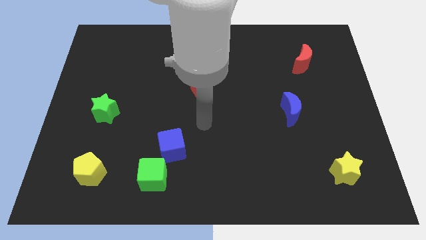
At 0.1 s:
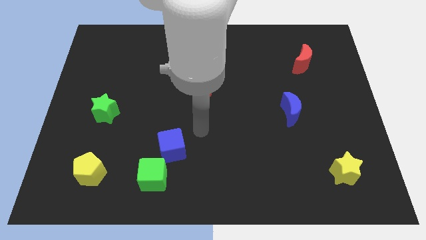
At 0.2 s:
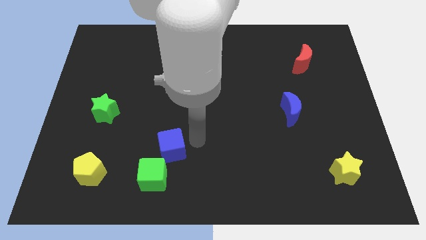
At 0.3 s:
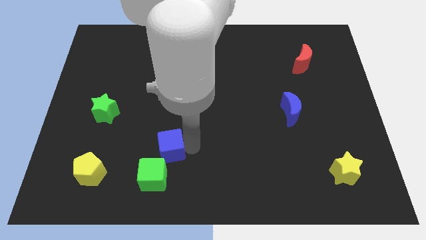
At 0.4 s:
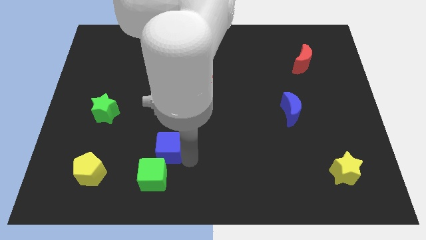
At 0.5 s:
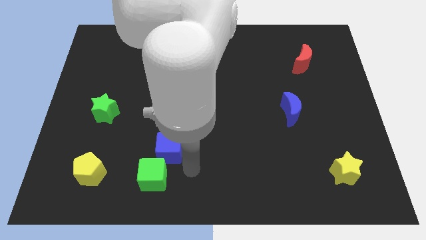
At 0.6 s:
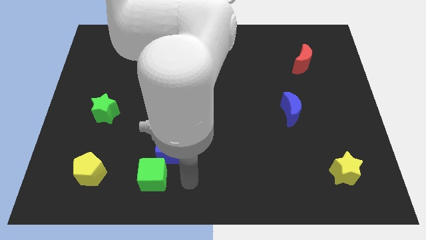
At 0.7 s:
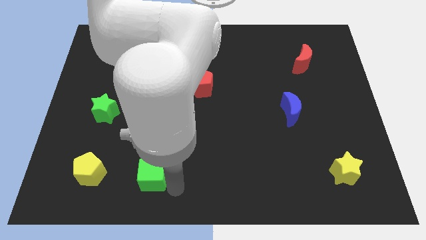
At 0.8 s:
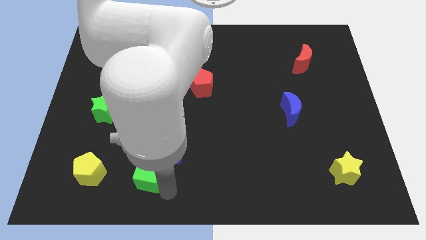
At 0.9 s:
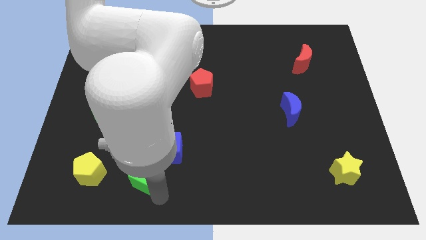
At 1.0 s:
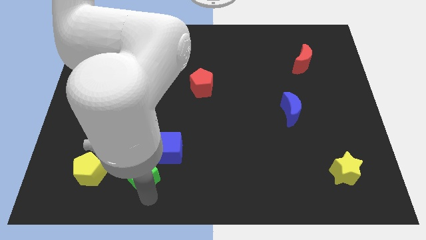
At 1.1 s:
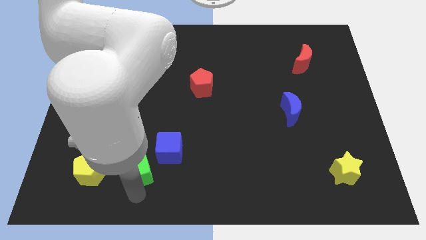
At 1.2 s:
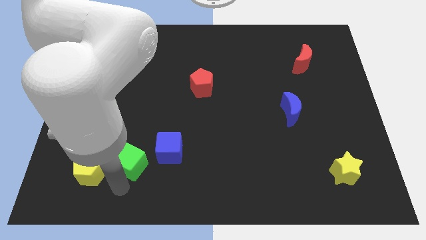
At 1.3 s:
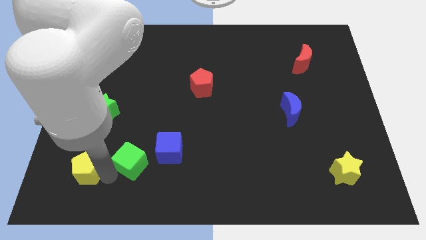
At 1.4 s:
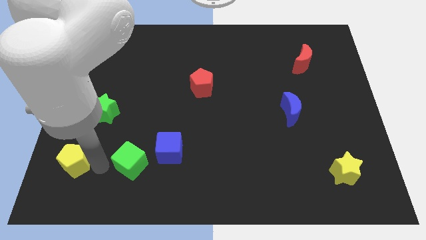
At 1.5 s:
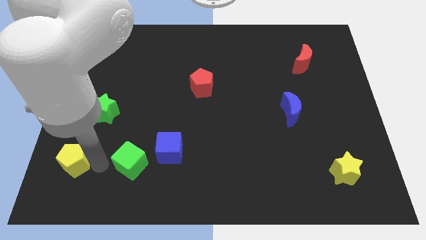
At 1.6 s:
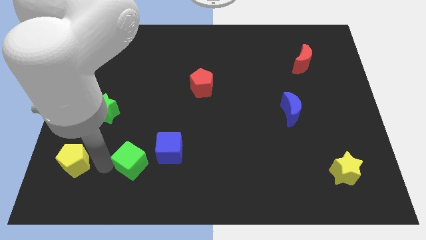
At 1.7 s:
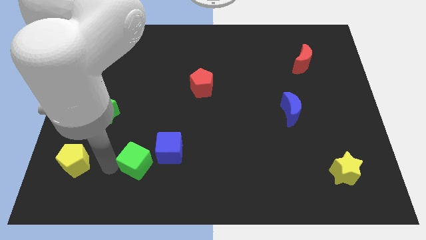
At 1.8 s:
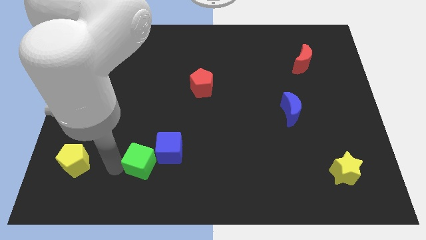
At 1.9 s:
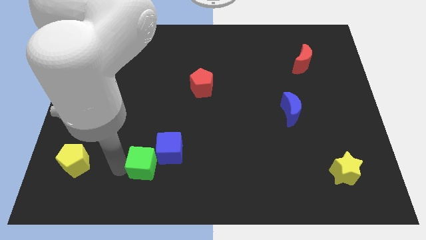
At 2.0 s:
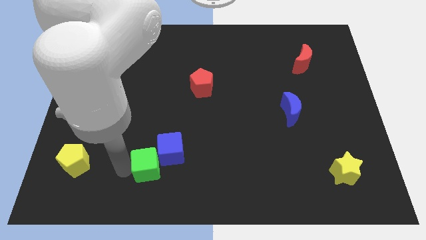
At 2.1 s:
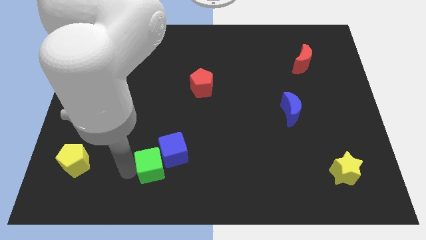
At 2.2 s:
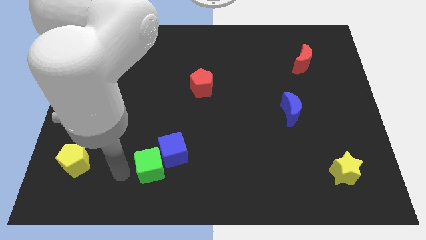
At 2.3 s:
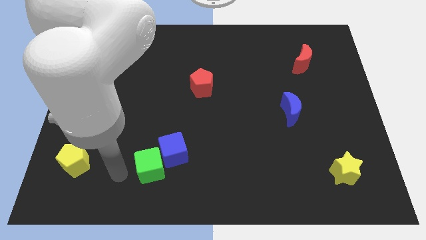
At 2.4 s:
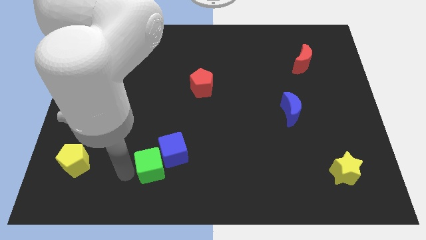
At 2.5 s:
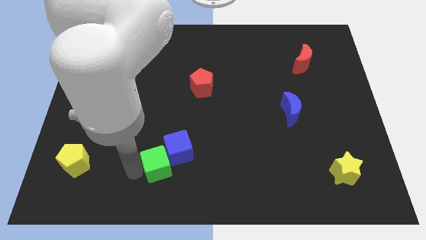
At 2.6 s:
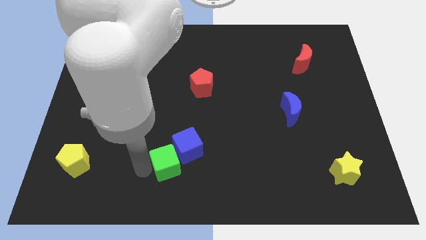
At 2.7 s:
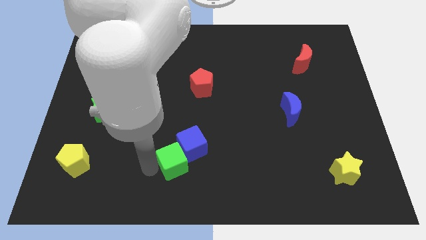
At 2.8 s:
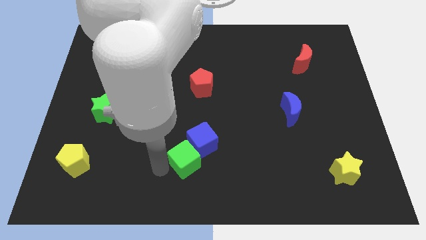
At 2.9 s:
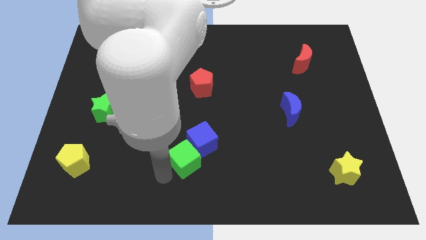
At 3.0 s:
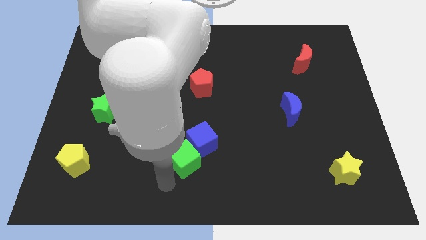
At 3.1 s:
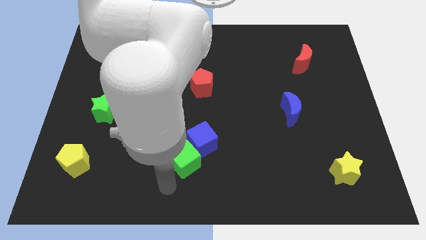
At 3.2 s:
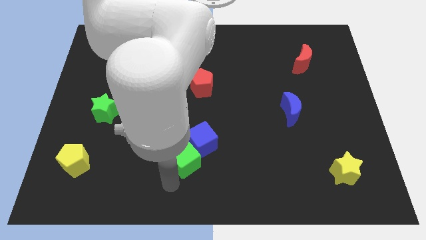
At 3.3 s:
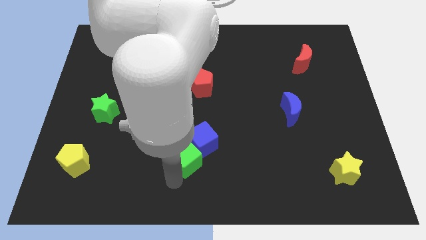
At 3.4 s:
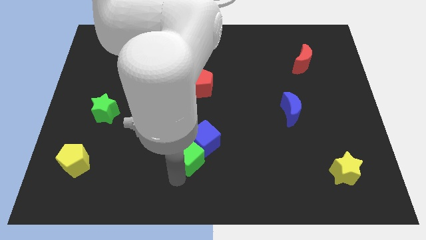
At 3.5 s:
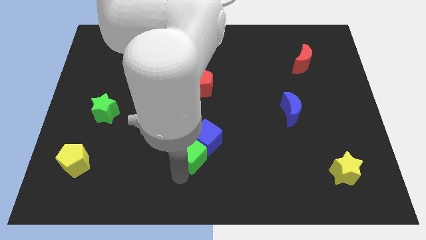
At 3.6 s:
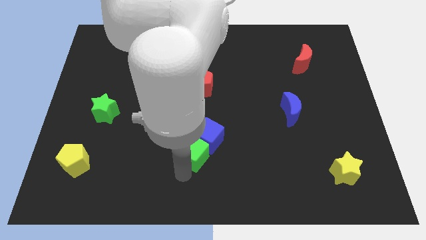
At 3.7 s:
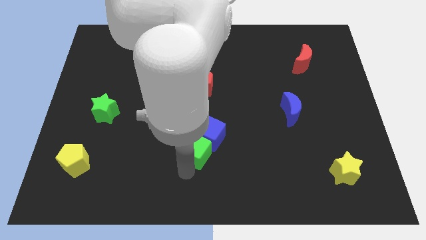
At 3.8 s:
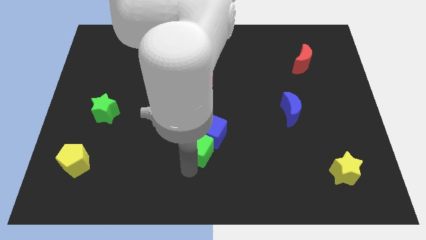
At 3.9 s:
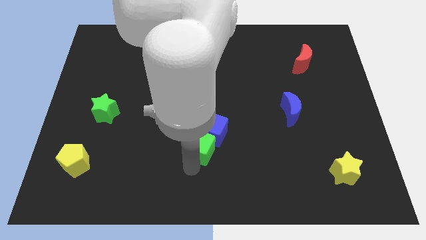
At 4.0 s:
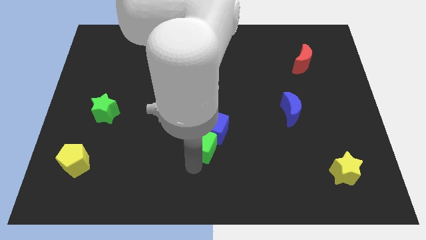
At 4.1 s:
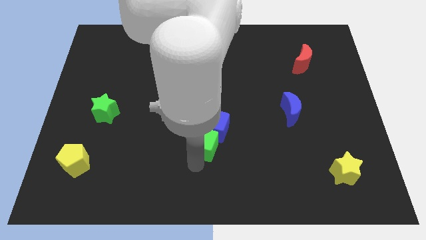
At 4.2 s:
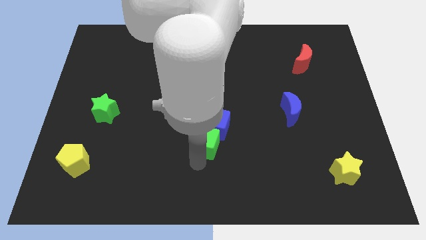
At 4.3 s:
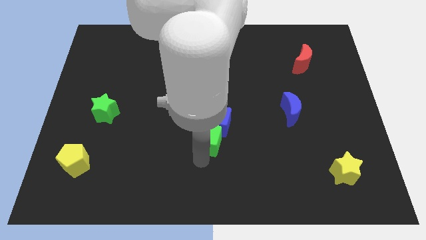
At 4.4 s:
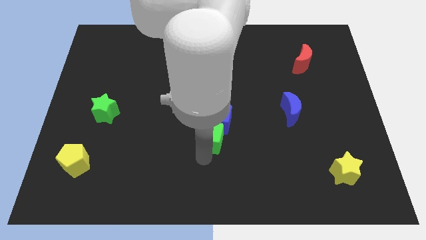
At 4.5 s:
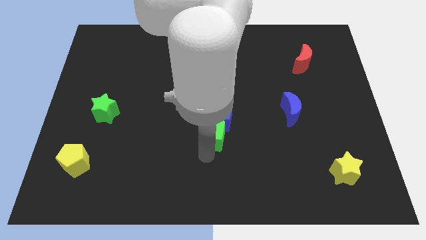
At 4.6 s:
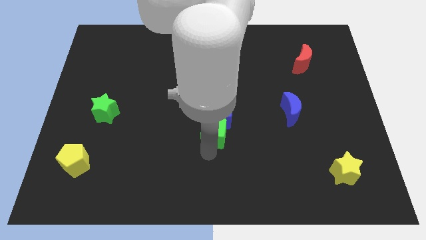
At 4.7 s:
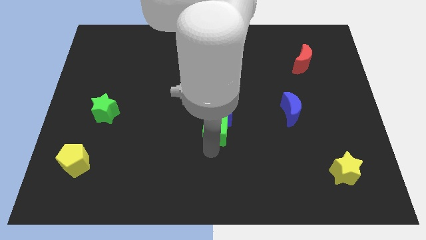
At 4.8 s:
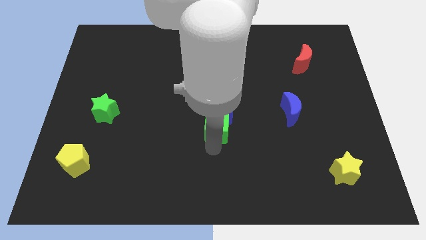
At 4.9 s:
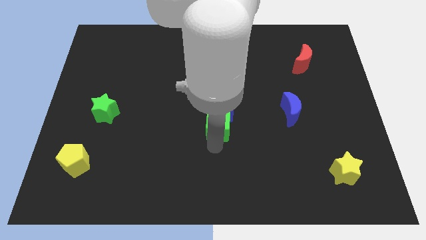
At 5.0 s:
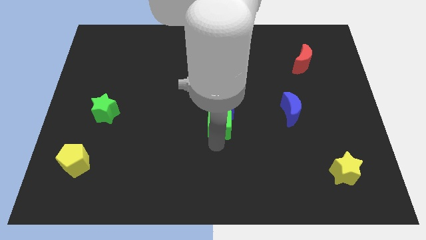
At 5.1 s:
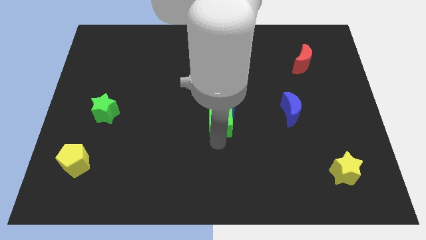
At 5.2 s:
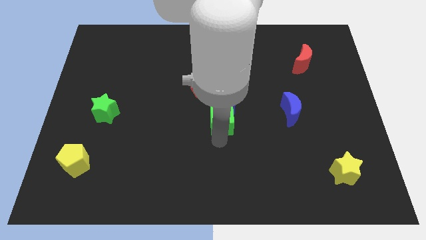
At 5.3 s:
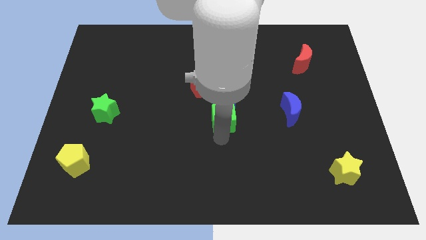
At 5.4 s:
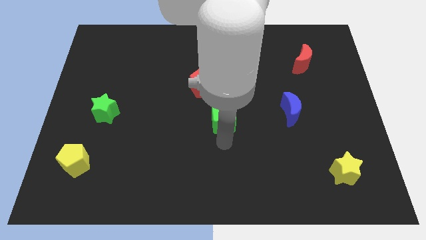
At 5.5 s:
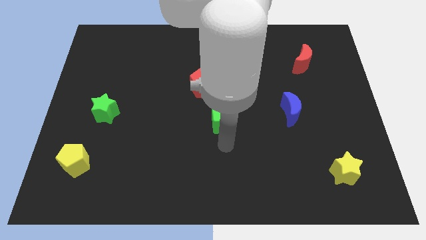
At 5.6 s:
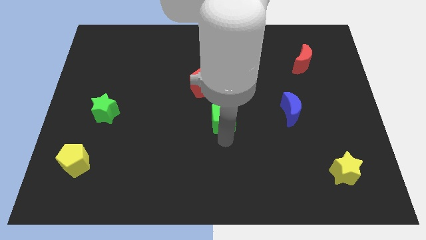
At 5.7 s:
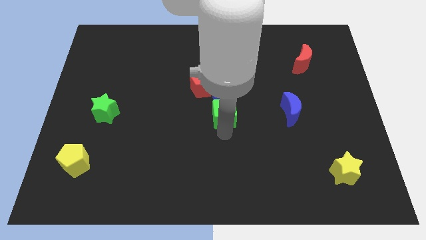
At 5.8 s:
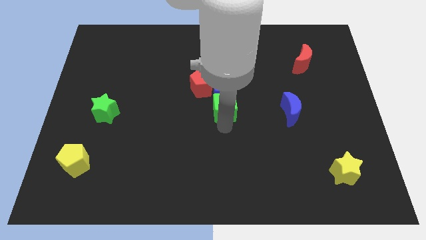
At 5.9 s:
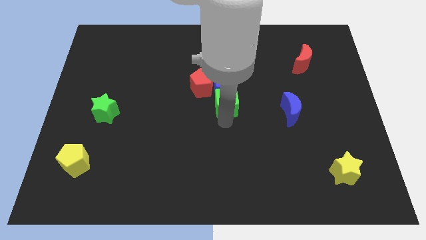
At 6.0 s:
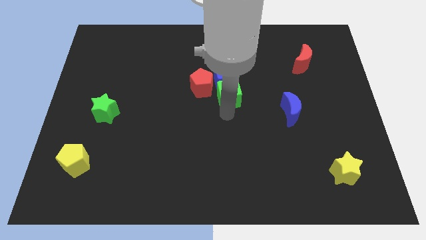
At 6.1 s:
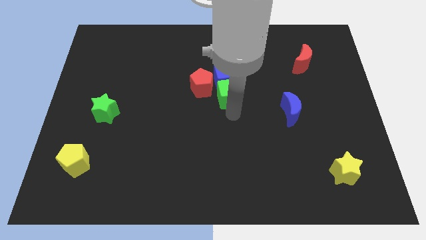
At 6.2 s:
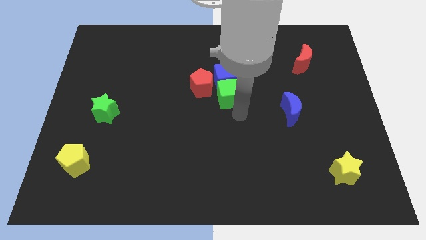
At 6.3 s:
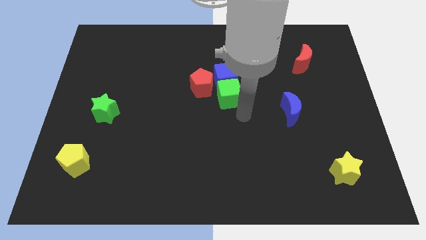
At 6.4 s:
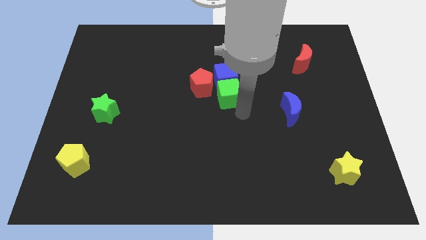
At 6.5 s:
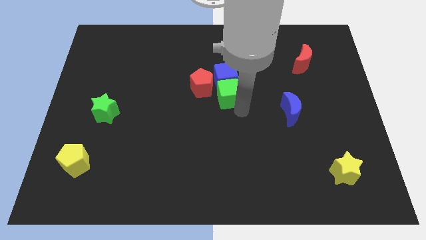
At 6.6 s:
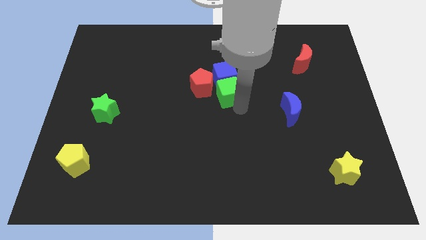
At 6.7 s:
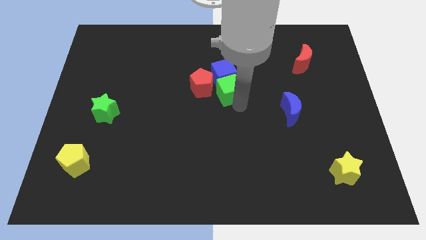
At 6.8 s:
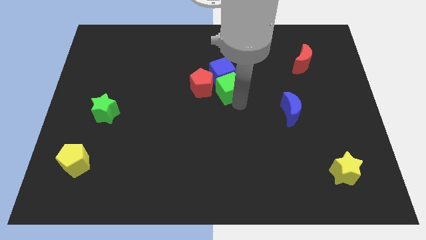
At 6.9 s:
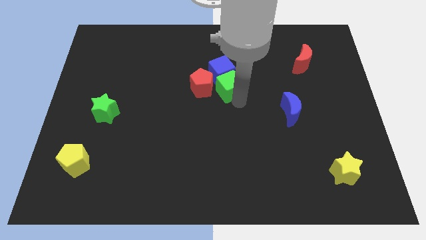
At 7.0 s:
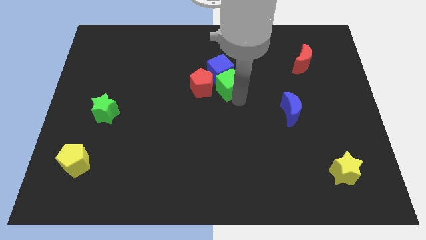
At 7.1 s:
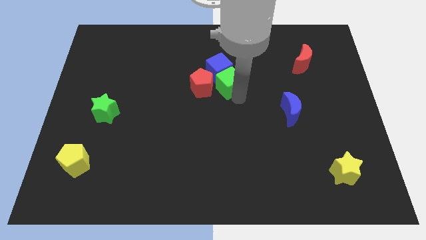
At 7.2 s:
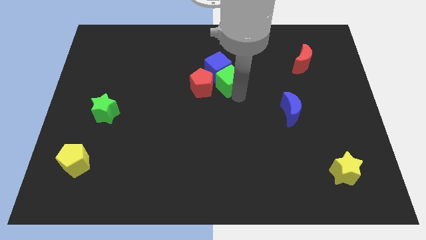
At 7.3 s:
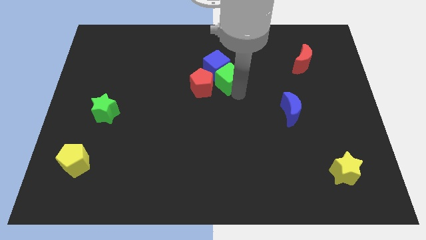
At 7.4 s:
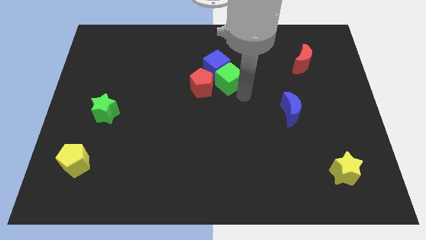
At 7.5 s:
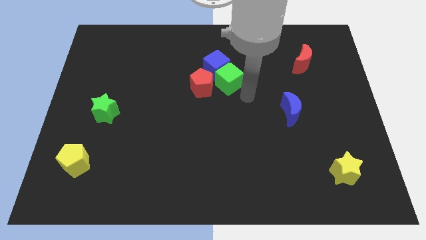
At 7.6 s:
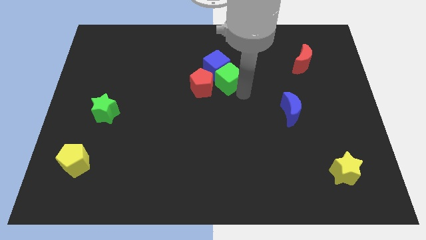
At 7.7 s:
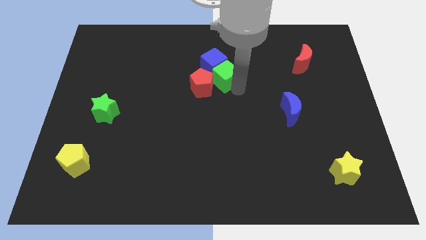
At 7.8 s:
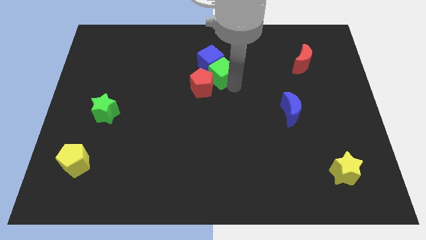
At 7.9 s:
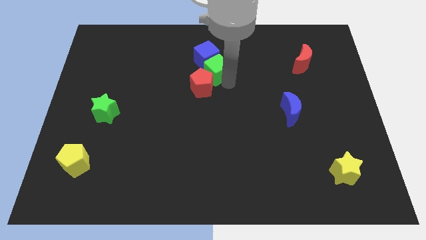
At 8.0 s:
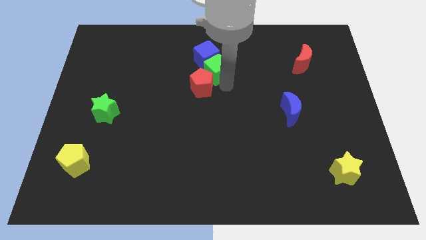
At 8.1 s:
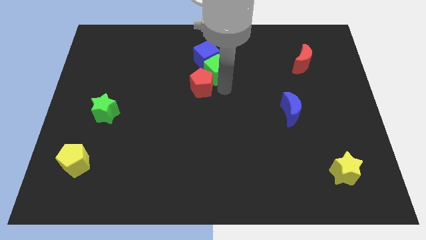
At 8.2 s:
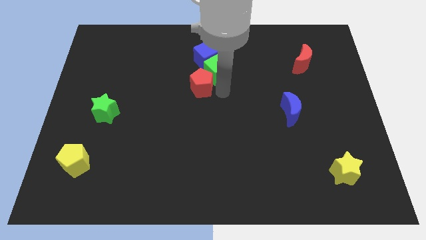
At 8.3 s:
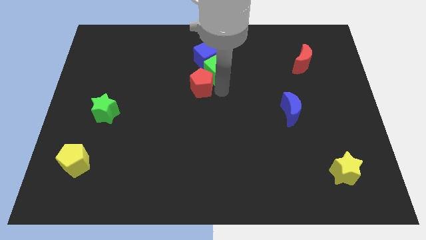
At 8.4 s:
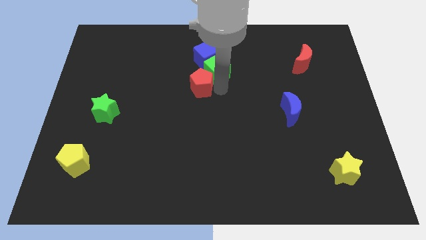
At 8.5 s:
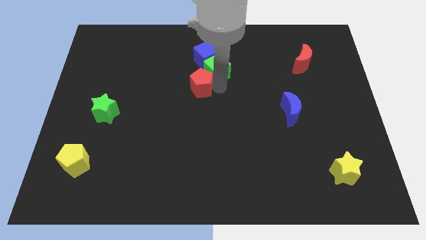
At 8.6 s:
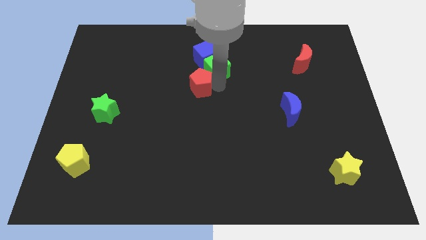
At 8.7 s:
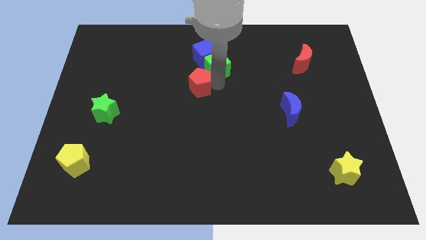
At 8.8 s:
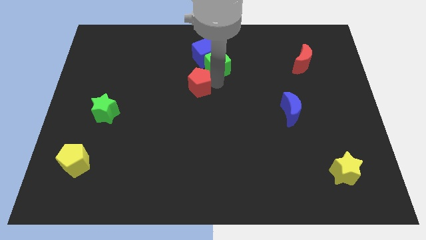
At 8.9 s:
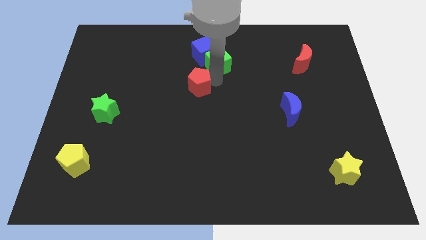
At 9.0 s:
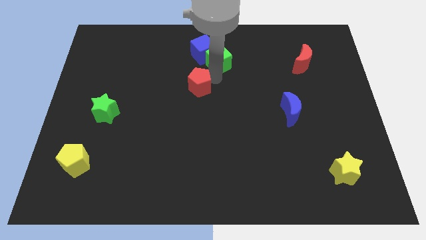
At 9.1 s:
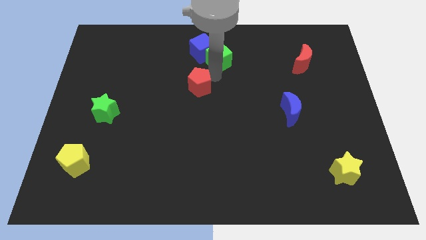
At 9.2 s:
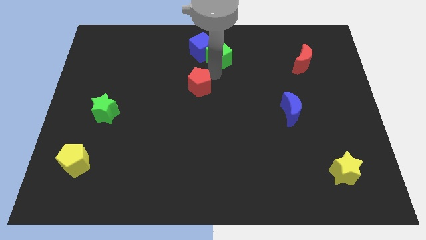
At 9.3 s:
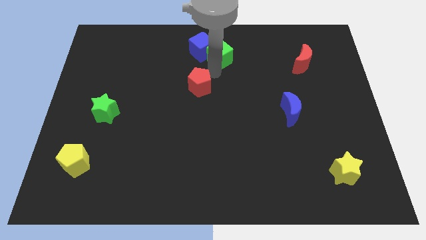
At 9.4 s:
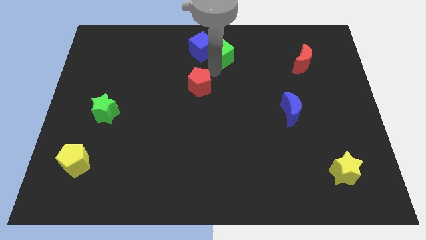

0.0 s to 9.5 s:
put the green cube to the top
